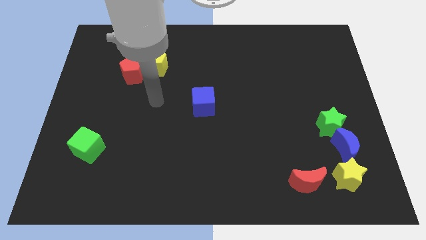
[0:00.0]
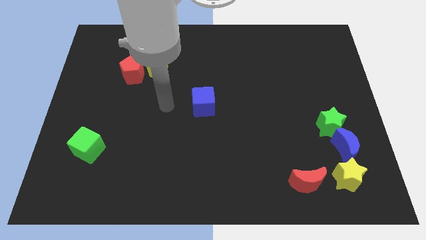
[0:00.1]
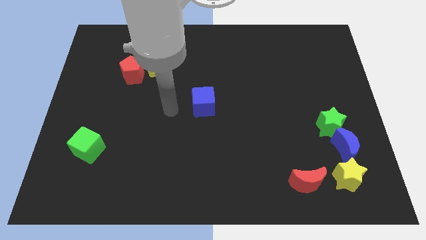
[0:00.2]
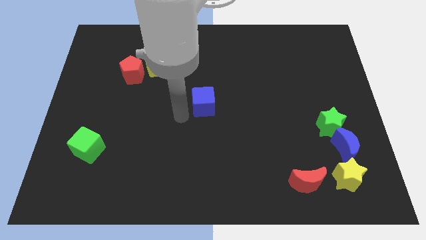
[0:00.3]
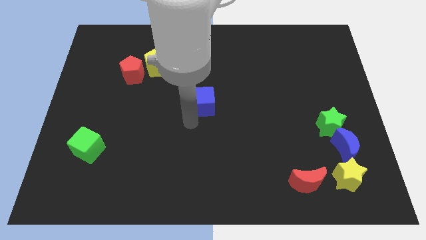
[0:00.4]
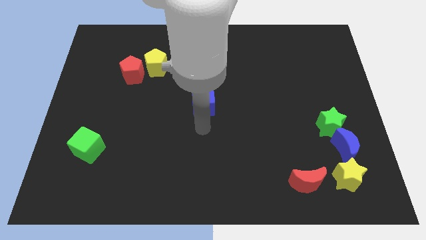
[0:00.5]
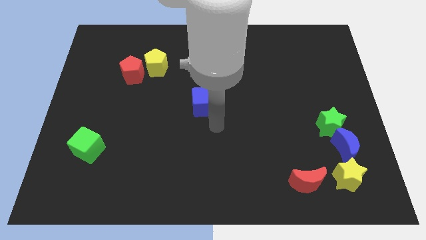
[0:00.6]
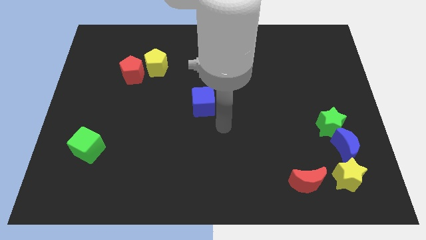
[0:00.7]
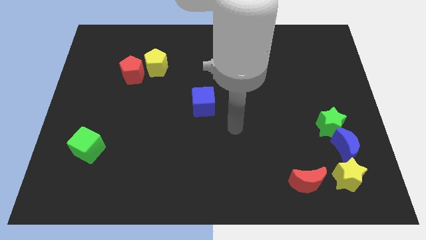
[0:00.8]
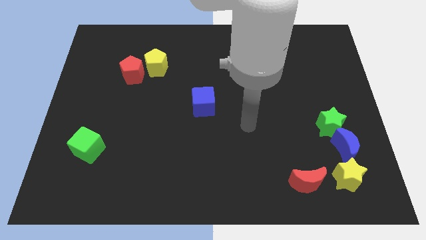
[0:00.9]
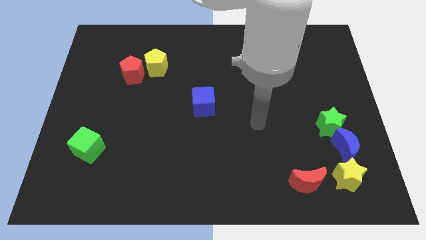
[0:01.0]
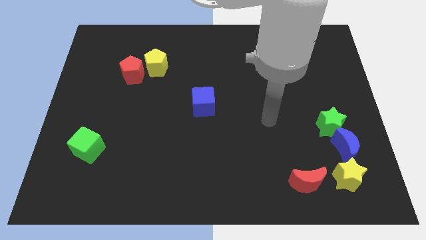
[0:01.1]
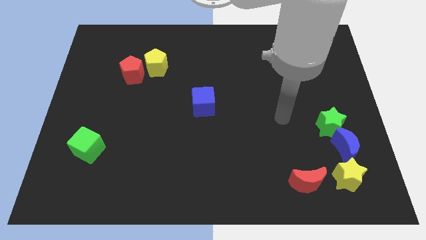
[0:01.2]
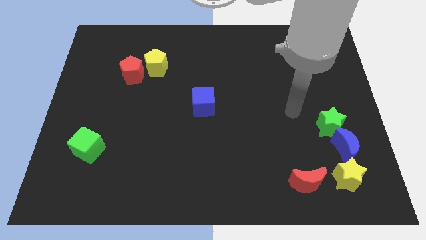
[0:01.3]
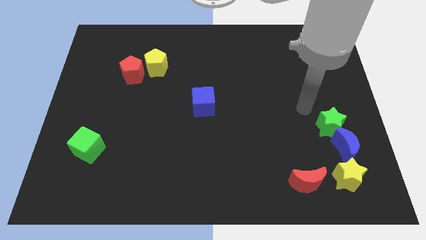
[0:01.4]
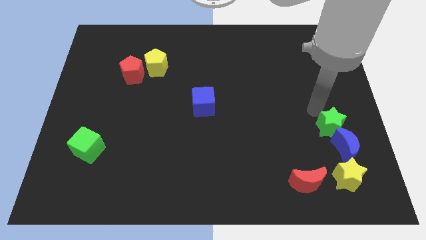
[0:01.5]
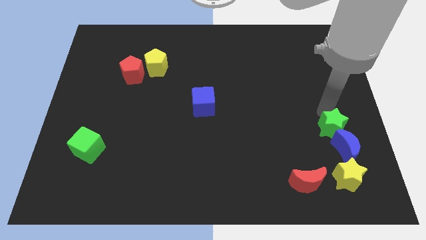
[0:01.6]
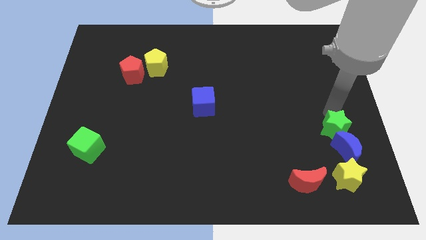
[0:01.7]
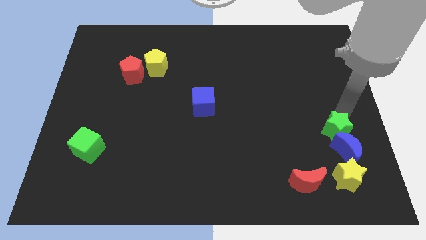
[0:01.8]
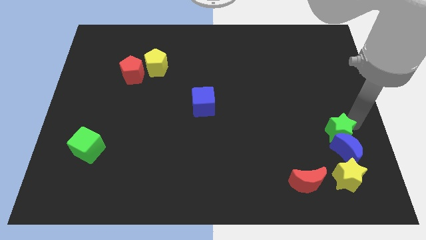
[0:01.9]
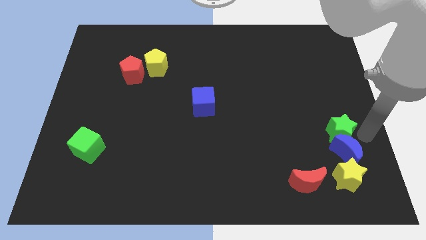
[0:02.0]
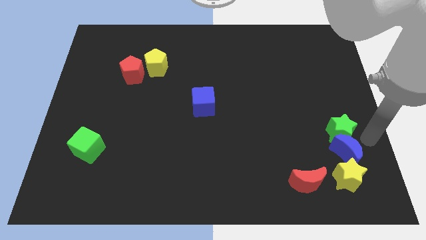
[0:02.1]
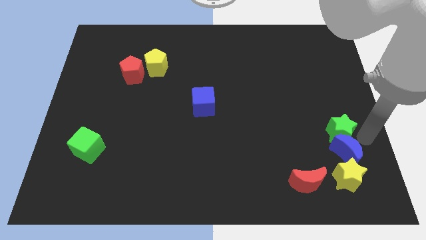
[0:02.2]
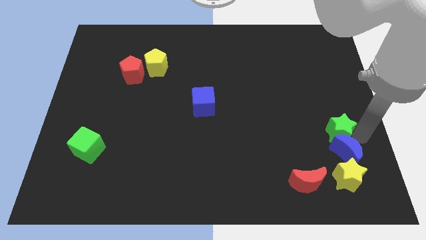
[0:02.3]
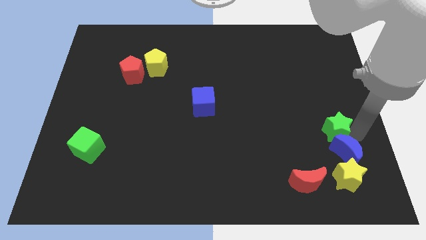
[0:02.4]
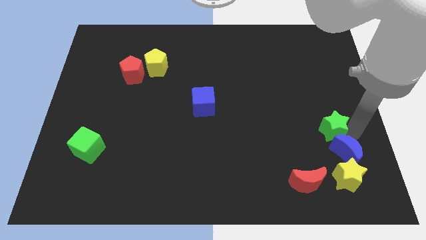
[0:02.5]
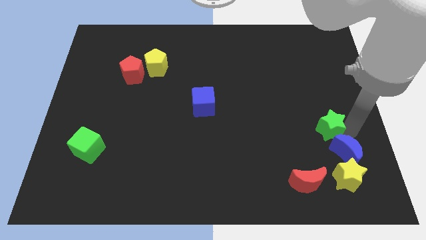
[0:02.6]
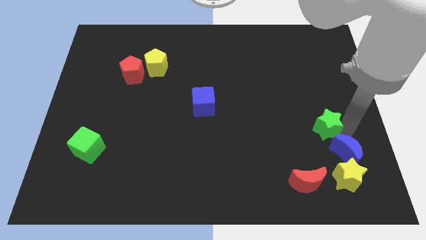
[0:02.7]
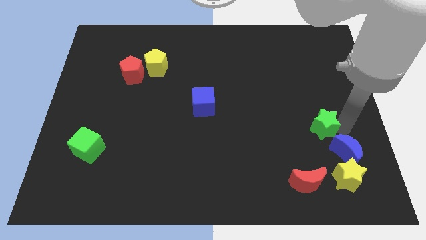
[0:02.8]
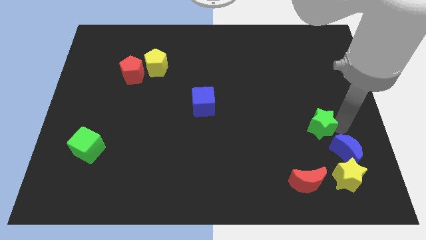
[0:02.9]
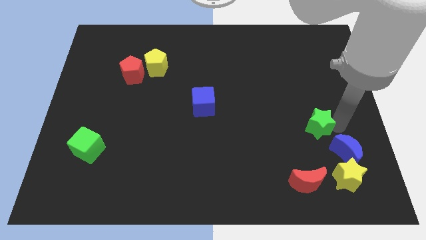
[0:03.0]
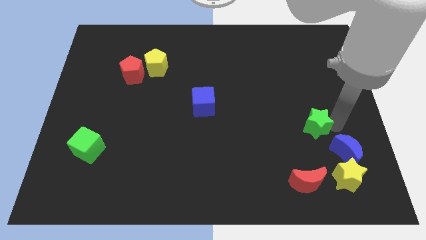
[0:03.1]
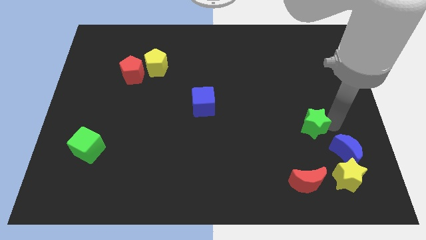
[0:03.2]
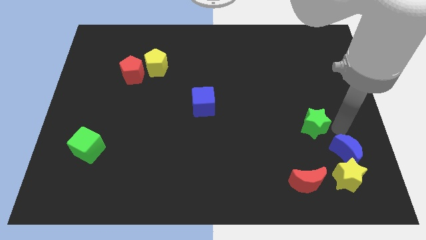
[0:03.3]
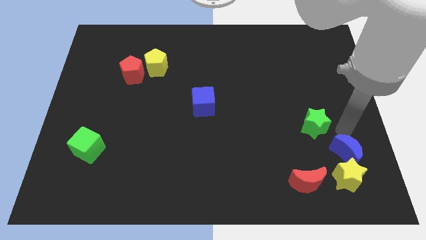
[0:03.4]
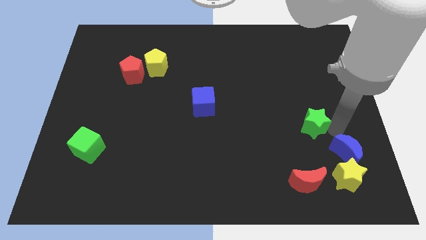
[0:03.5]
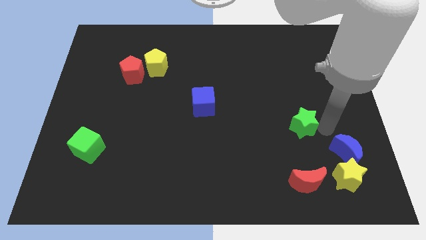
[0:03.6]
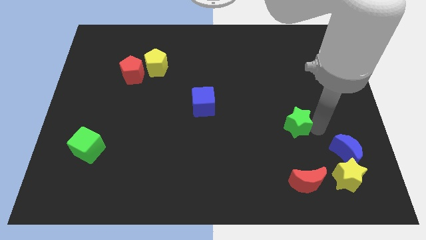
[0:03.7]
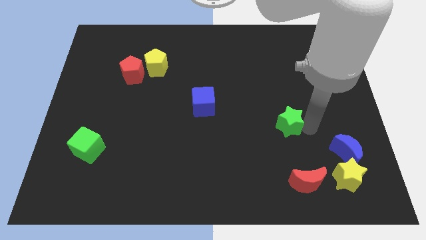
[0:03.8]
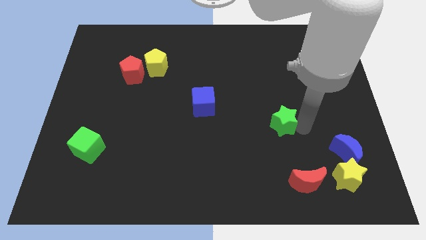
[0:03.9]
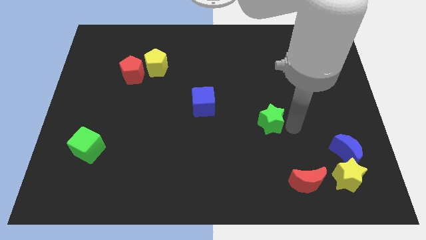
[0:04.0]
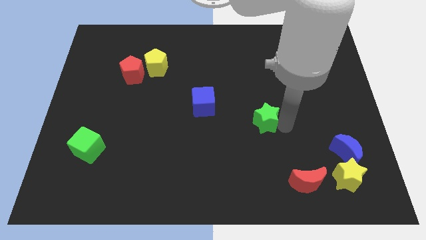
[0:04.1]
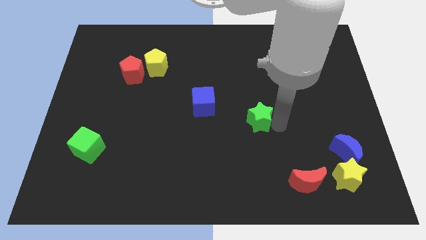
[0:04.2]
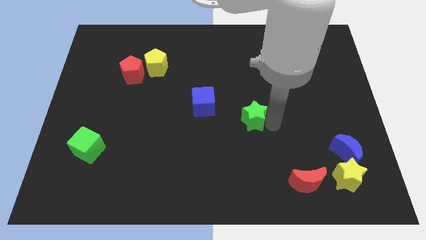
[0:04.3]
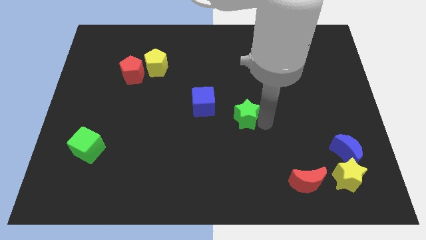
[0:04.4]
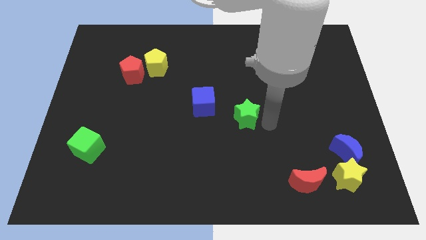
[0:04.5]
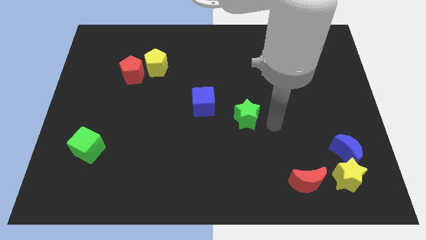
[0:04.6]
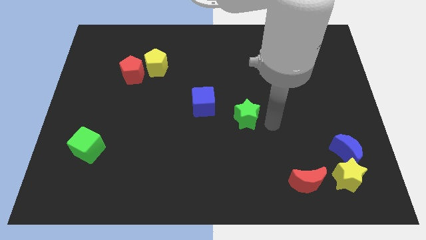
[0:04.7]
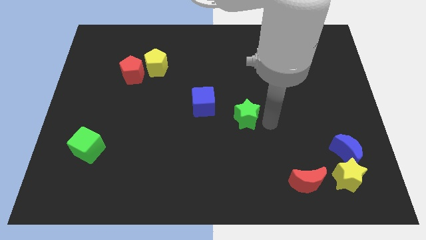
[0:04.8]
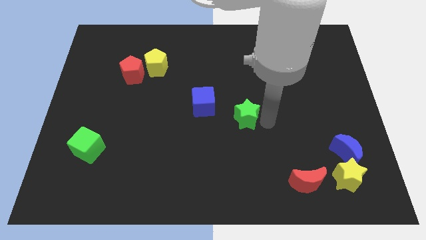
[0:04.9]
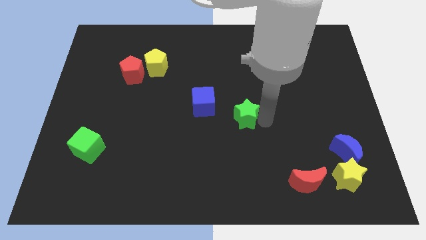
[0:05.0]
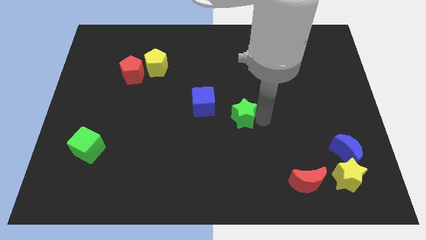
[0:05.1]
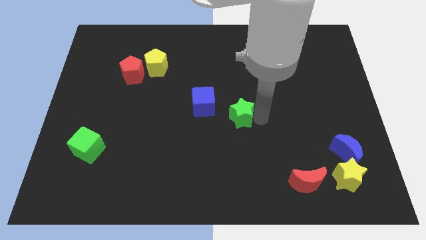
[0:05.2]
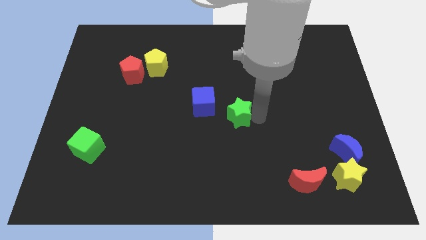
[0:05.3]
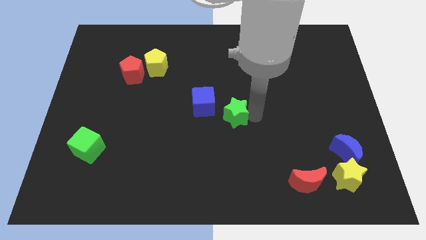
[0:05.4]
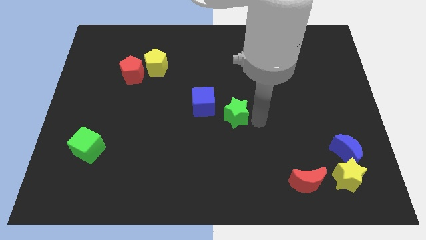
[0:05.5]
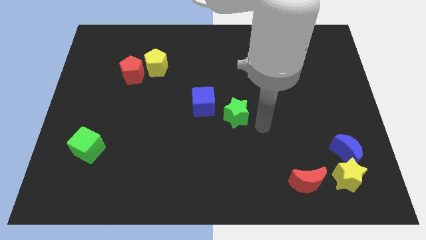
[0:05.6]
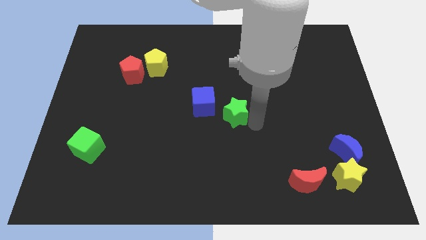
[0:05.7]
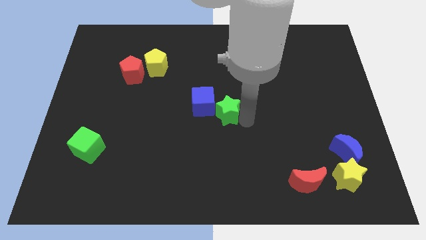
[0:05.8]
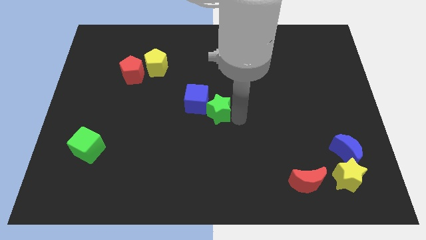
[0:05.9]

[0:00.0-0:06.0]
put the green star towards the blue cube

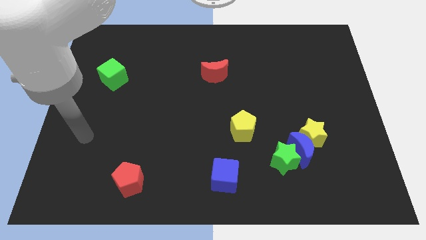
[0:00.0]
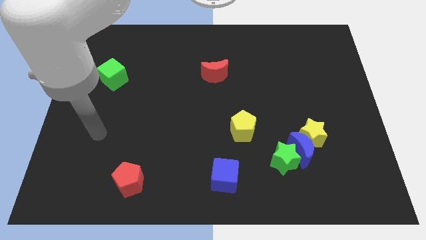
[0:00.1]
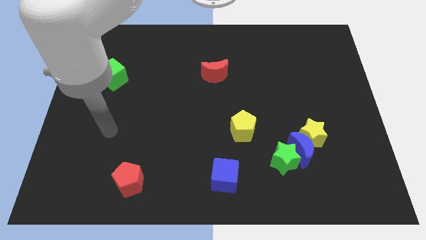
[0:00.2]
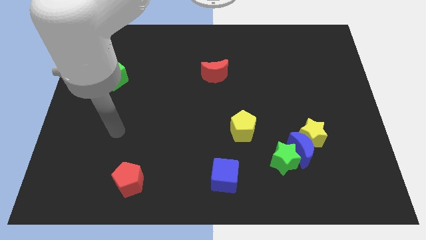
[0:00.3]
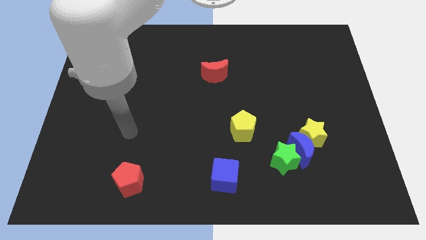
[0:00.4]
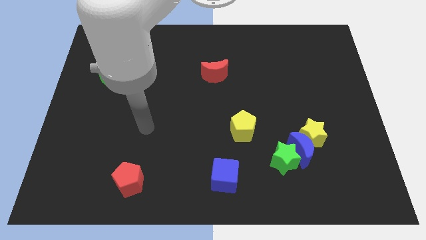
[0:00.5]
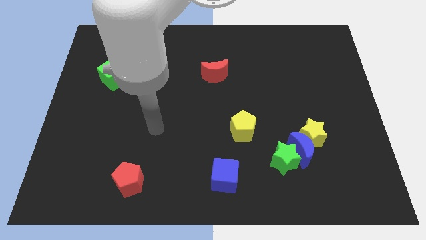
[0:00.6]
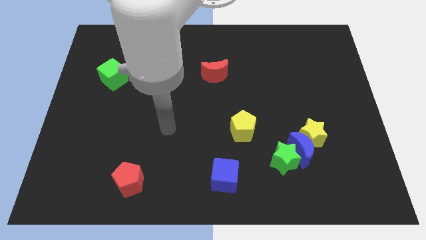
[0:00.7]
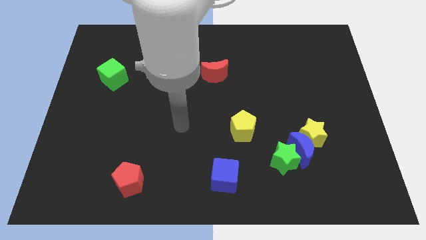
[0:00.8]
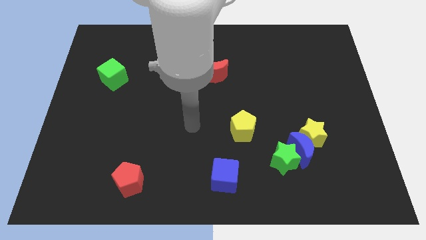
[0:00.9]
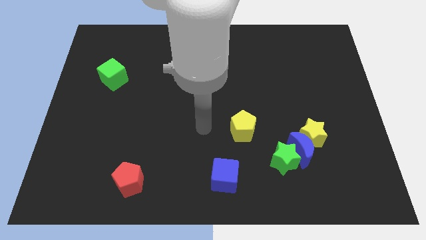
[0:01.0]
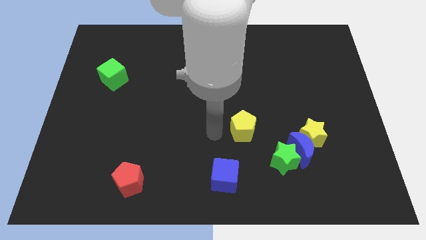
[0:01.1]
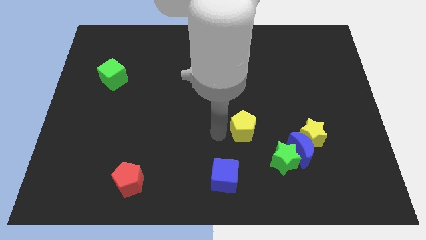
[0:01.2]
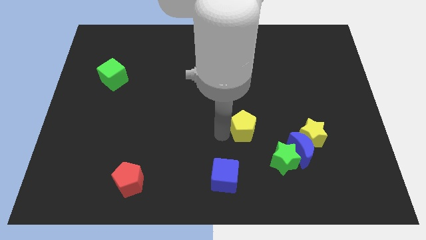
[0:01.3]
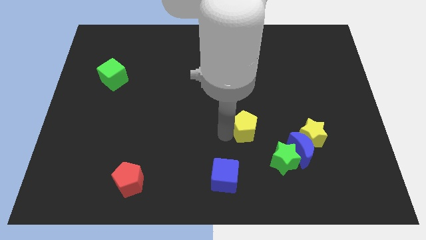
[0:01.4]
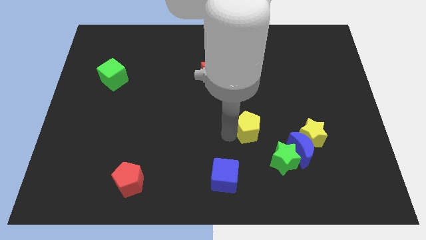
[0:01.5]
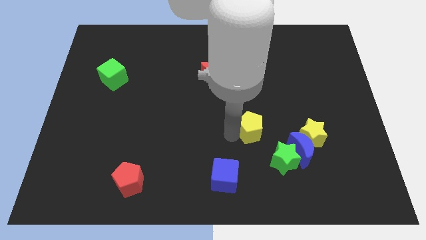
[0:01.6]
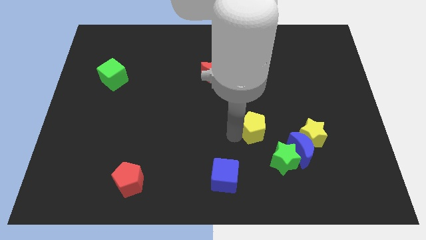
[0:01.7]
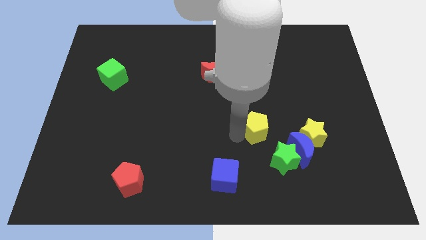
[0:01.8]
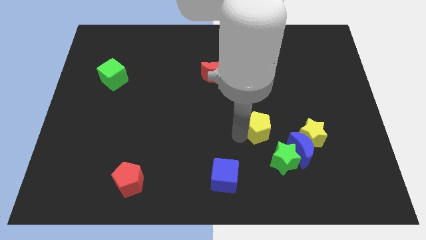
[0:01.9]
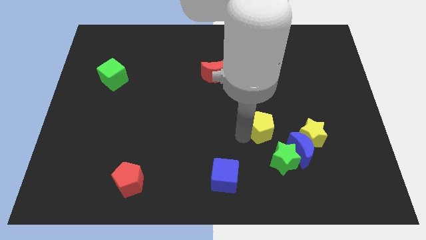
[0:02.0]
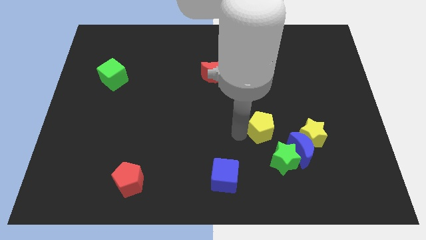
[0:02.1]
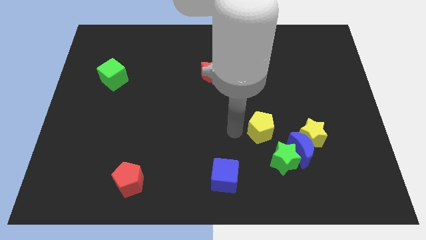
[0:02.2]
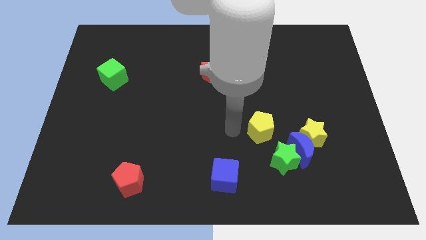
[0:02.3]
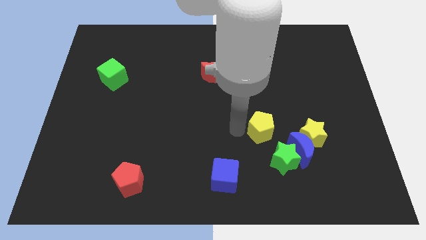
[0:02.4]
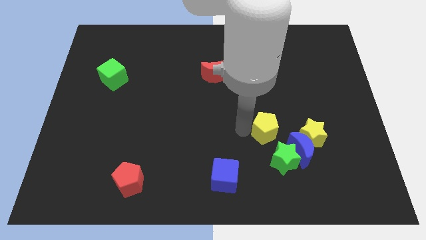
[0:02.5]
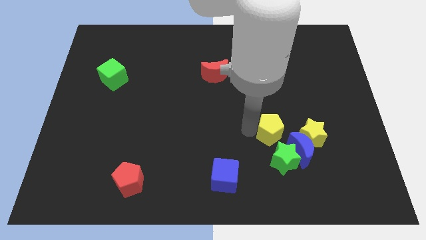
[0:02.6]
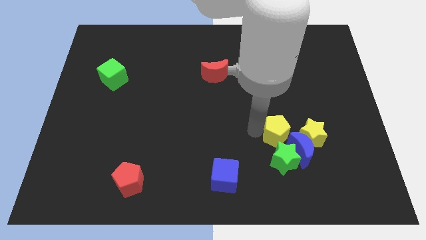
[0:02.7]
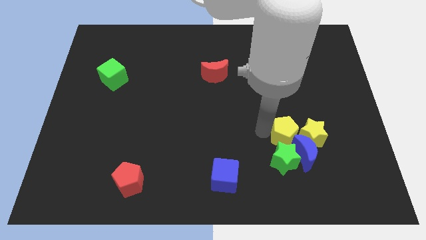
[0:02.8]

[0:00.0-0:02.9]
slide the yellow pentagon next to the yellow star
